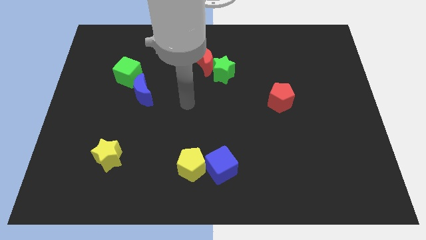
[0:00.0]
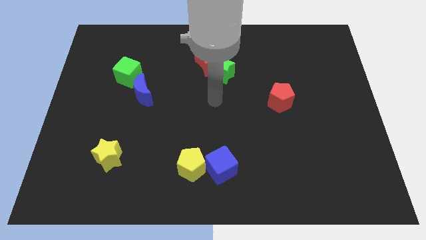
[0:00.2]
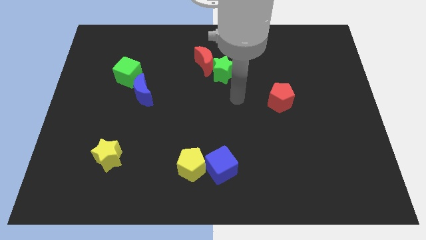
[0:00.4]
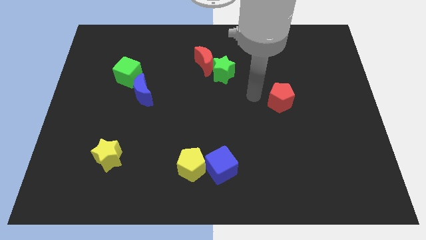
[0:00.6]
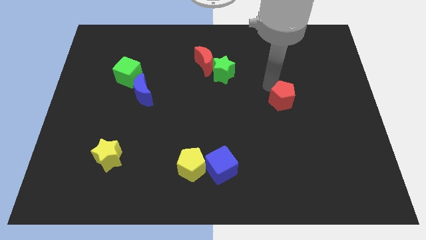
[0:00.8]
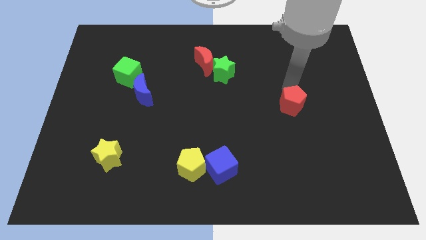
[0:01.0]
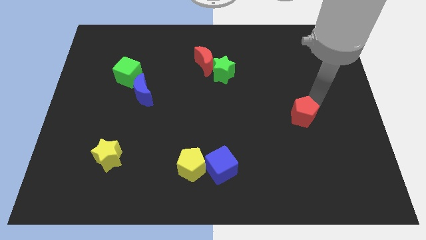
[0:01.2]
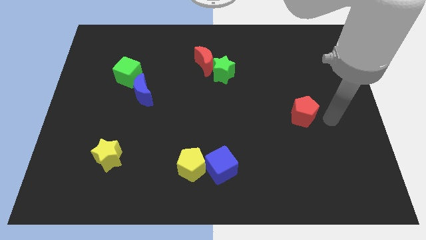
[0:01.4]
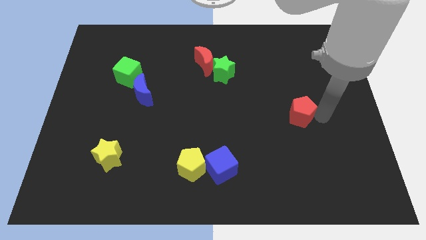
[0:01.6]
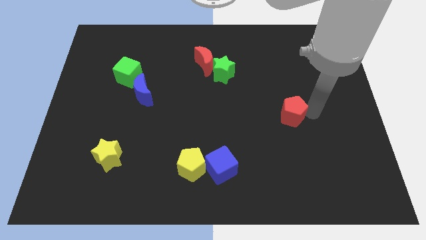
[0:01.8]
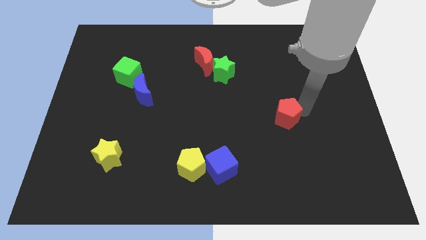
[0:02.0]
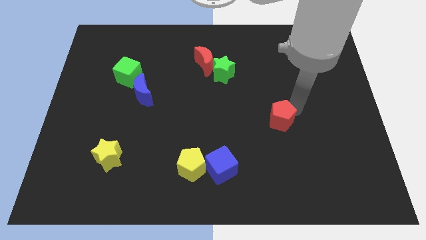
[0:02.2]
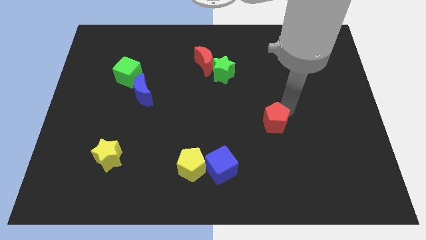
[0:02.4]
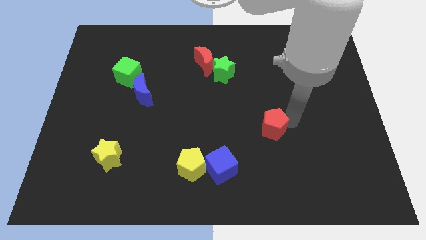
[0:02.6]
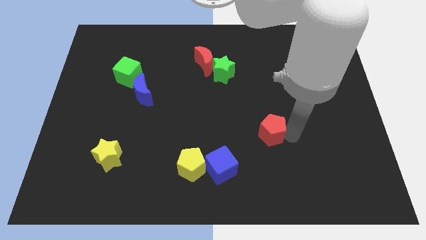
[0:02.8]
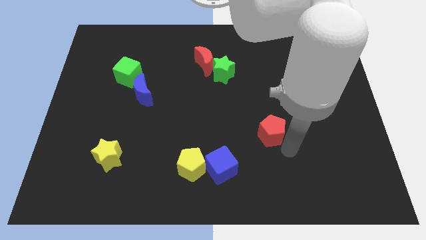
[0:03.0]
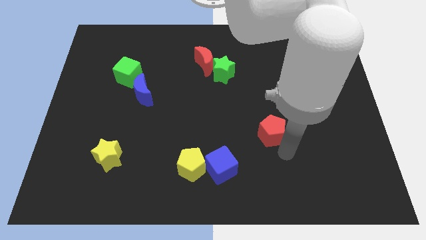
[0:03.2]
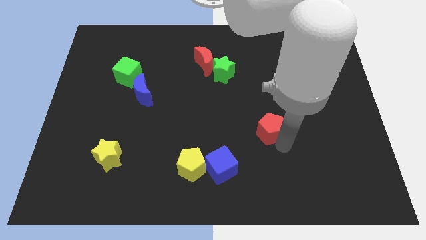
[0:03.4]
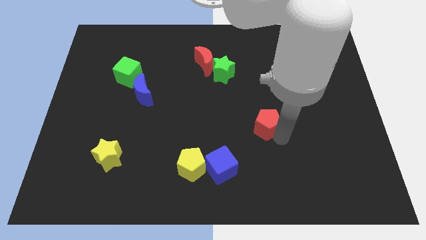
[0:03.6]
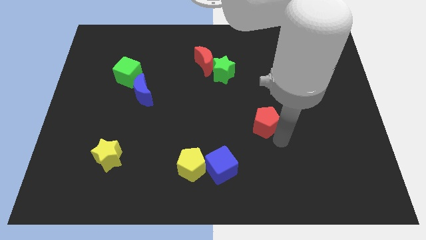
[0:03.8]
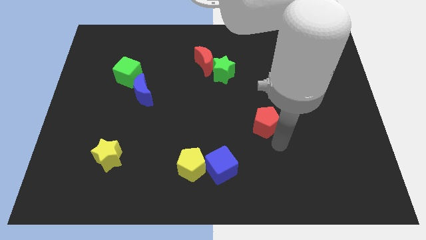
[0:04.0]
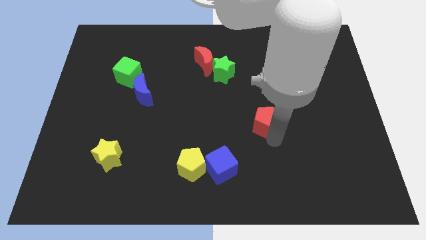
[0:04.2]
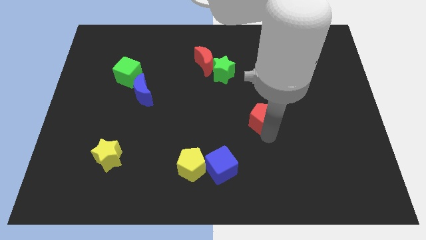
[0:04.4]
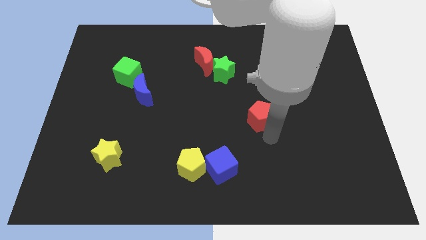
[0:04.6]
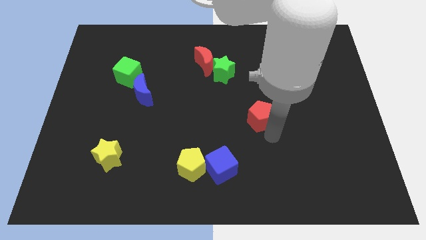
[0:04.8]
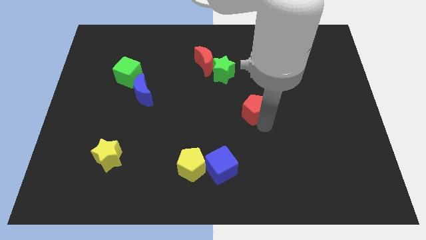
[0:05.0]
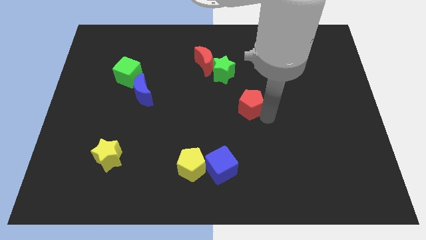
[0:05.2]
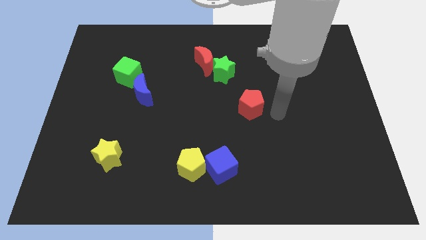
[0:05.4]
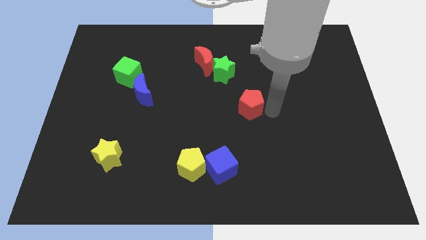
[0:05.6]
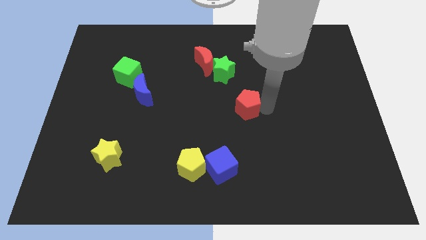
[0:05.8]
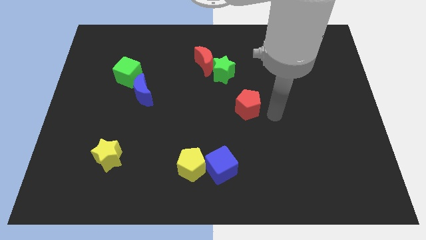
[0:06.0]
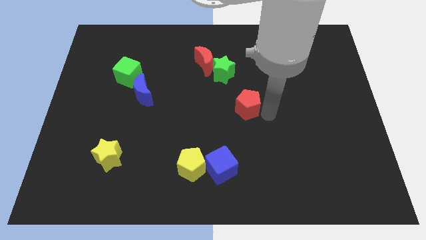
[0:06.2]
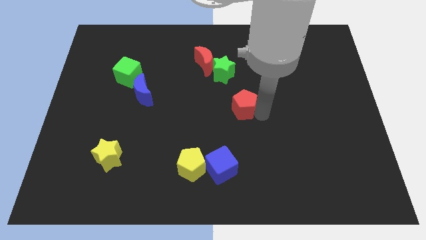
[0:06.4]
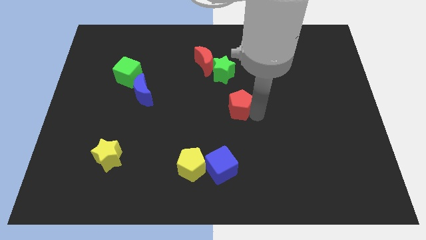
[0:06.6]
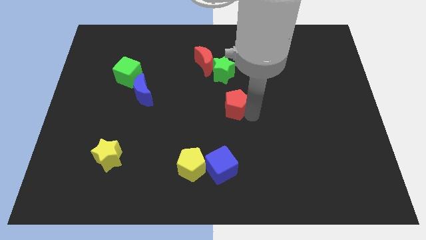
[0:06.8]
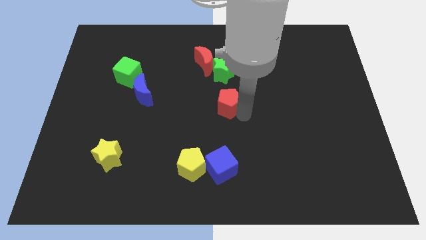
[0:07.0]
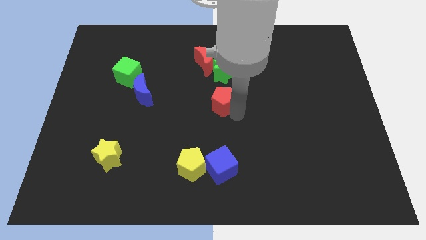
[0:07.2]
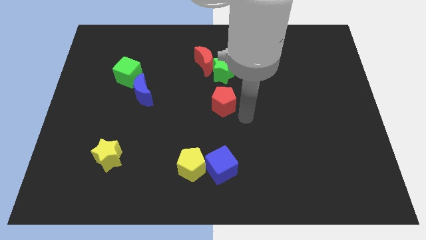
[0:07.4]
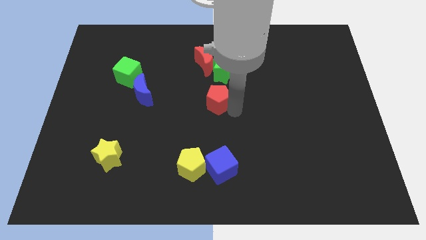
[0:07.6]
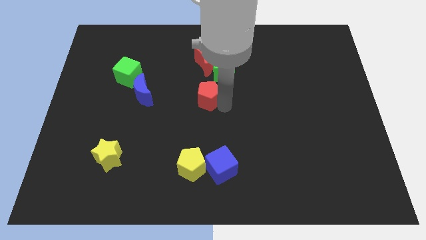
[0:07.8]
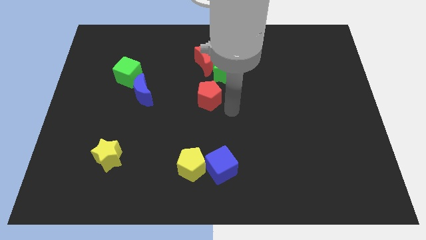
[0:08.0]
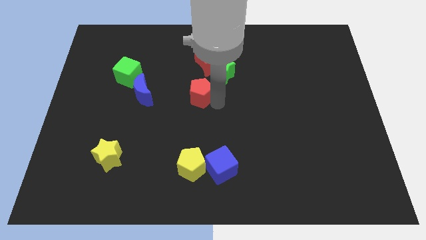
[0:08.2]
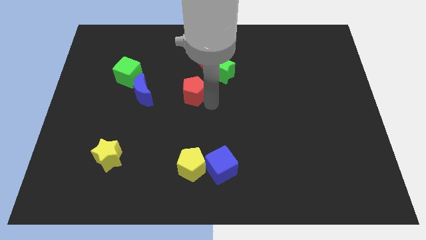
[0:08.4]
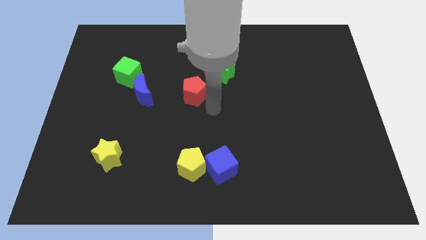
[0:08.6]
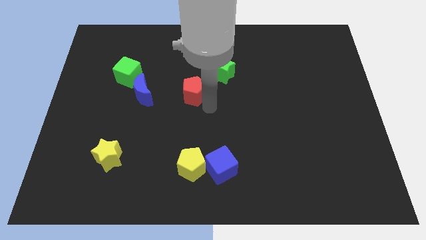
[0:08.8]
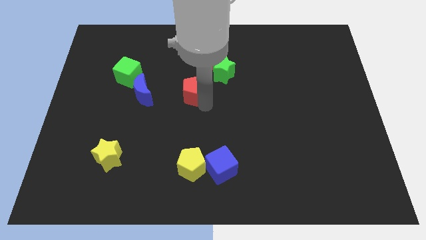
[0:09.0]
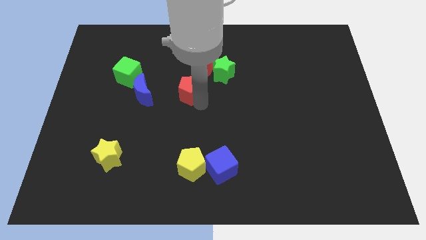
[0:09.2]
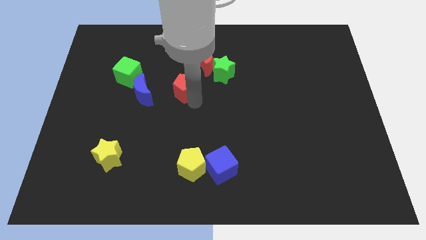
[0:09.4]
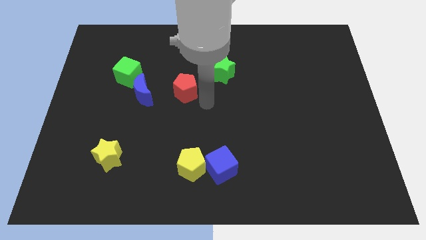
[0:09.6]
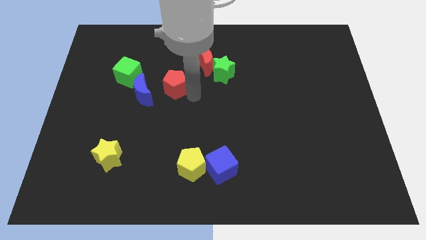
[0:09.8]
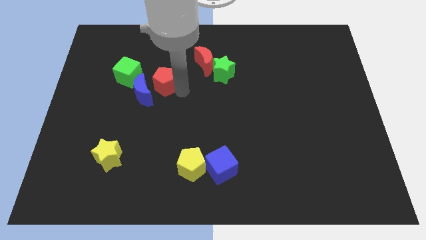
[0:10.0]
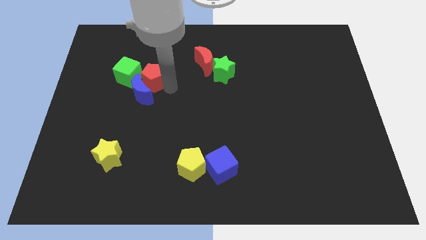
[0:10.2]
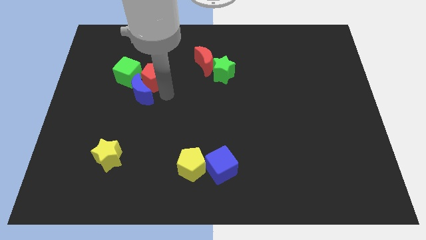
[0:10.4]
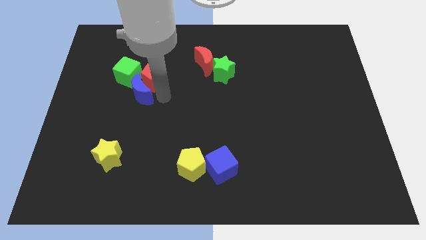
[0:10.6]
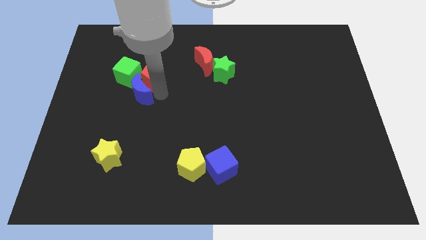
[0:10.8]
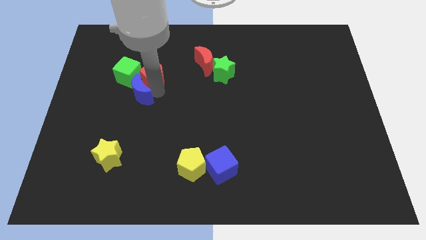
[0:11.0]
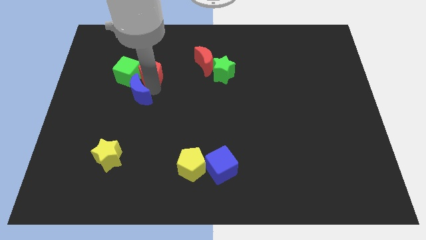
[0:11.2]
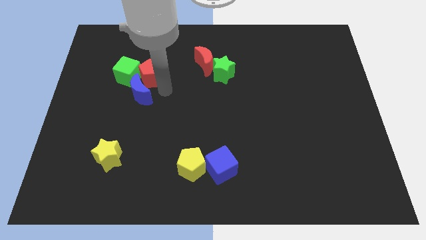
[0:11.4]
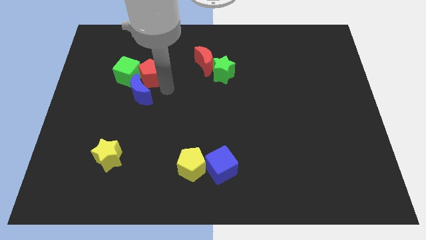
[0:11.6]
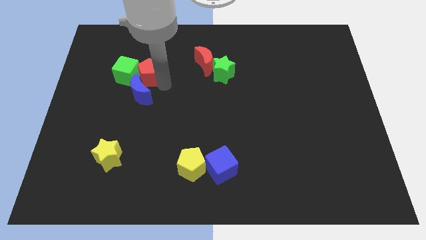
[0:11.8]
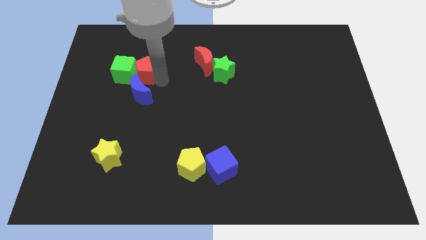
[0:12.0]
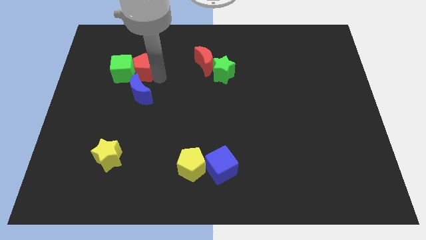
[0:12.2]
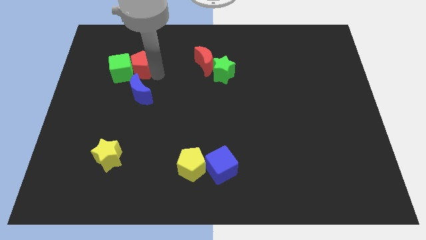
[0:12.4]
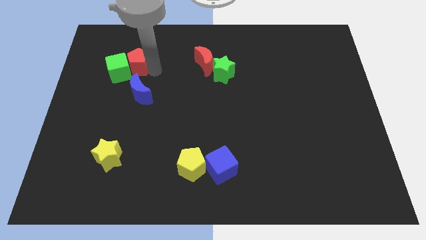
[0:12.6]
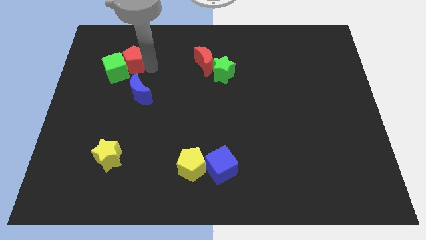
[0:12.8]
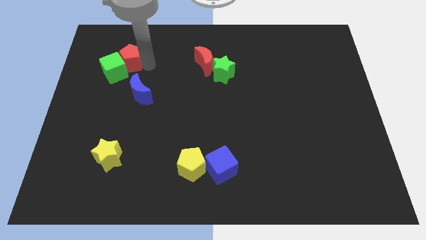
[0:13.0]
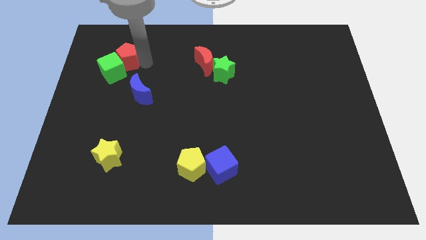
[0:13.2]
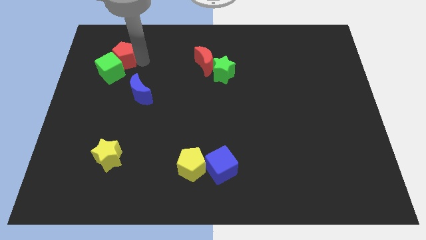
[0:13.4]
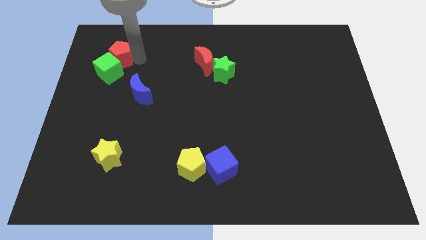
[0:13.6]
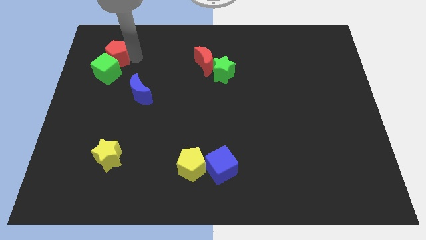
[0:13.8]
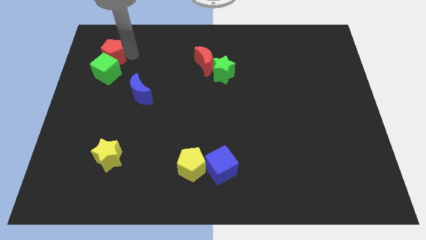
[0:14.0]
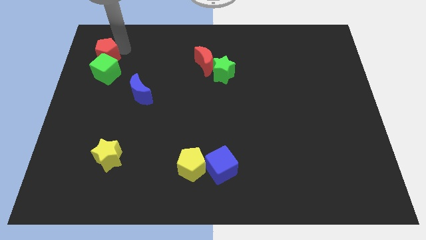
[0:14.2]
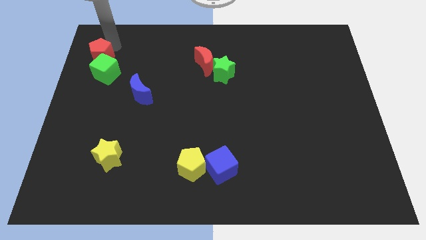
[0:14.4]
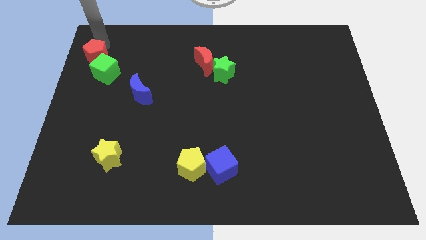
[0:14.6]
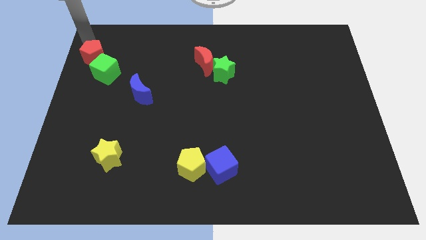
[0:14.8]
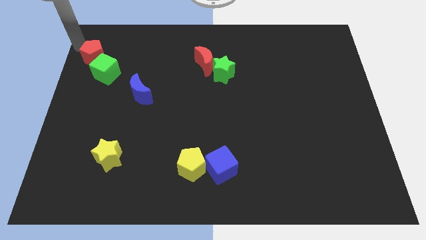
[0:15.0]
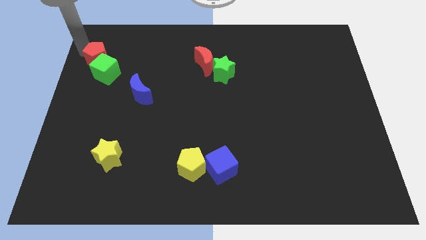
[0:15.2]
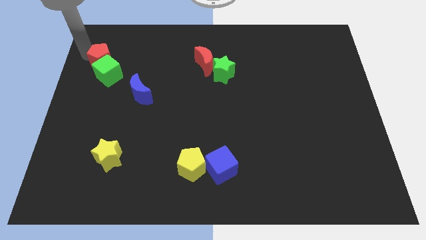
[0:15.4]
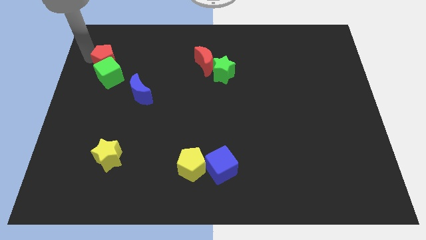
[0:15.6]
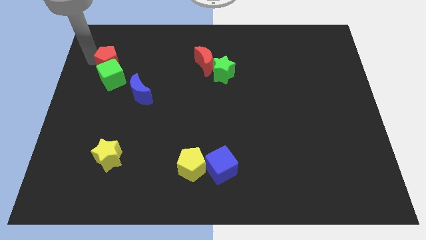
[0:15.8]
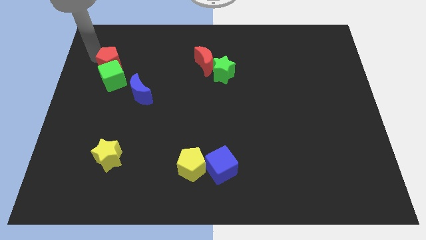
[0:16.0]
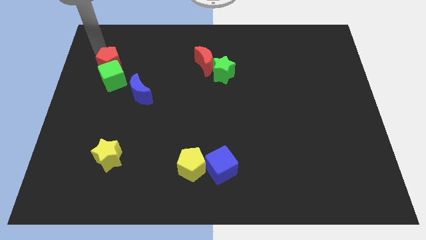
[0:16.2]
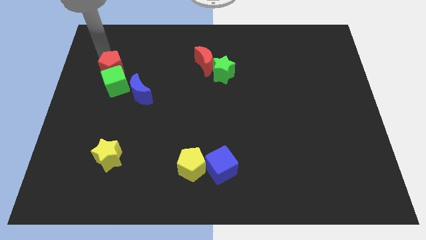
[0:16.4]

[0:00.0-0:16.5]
move the red pentagon to the top left of the blue moon
